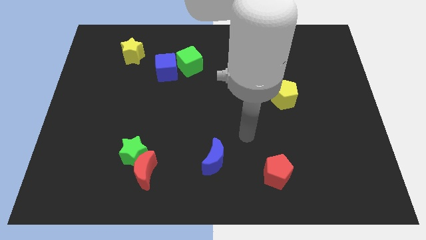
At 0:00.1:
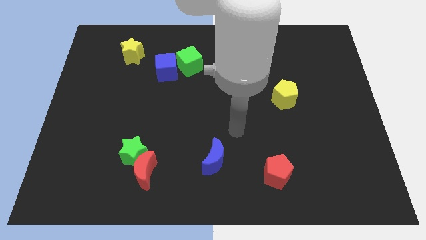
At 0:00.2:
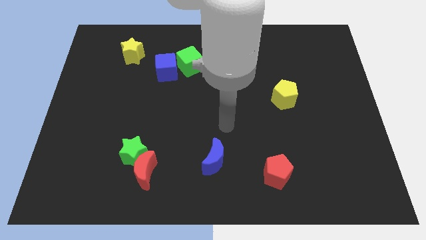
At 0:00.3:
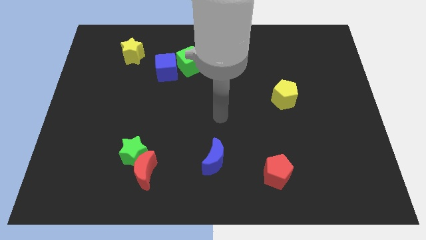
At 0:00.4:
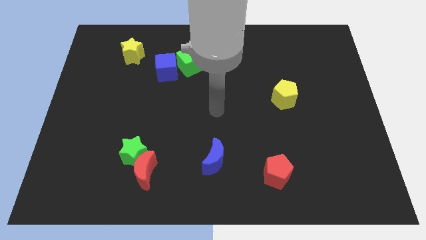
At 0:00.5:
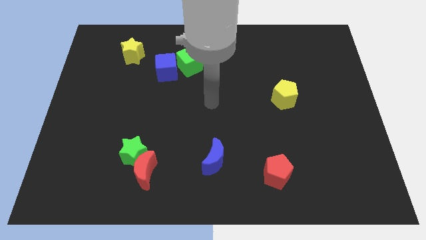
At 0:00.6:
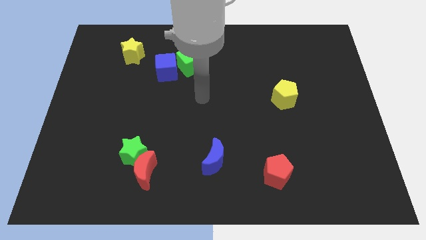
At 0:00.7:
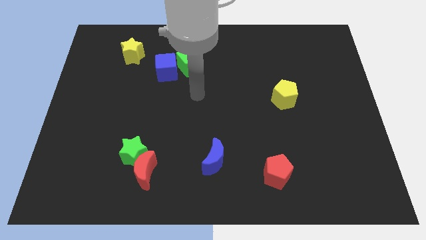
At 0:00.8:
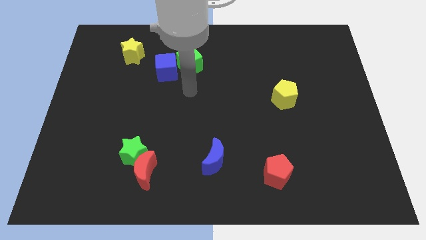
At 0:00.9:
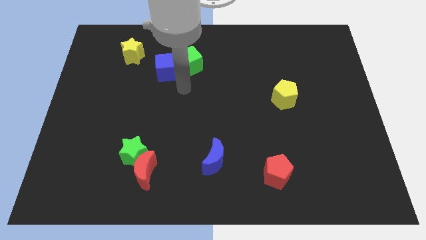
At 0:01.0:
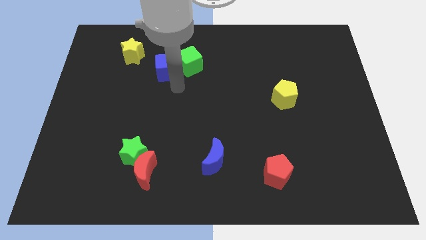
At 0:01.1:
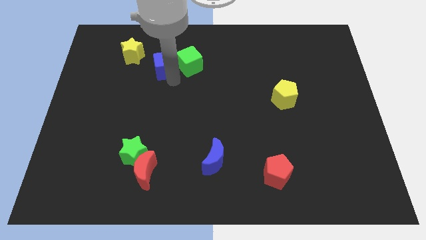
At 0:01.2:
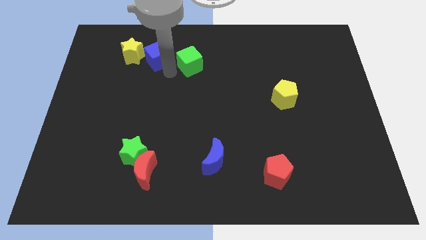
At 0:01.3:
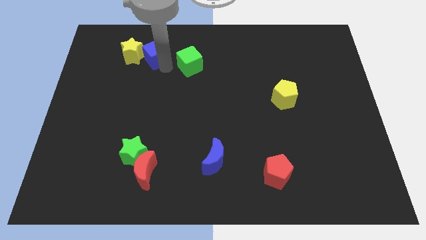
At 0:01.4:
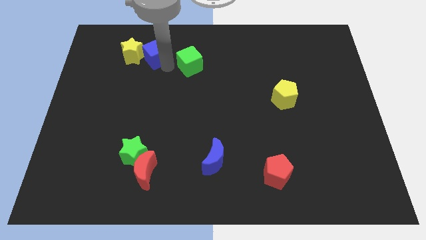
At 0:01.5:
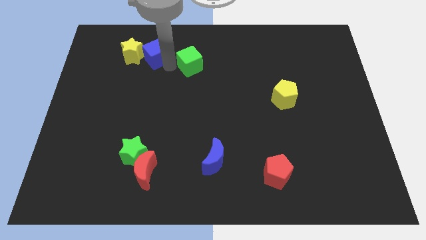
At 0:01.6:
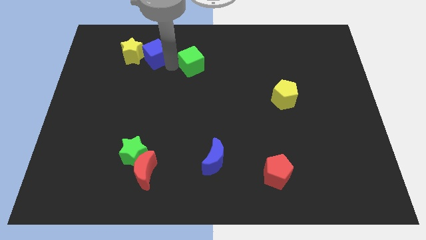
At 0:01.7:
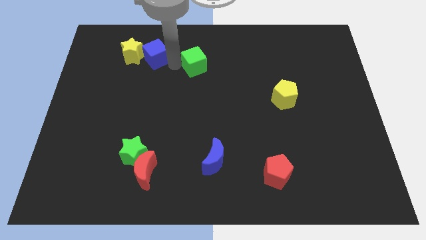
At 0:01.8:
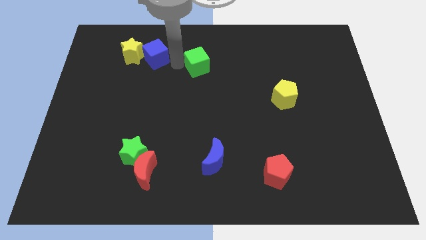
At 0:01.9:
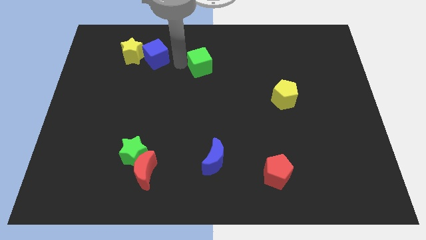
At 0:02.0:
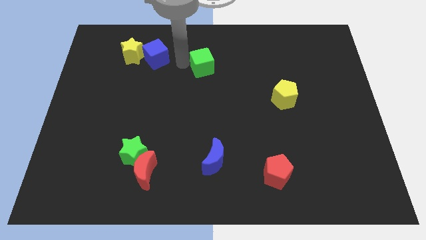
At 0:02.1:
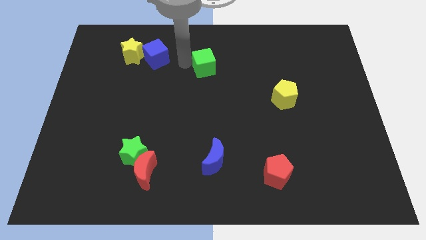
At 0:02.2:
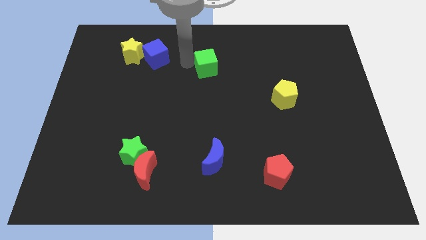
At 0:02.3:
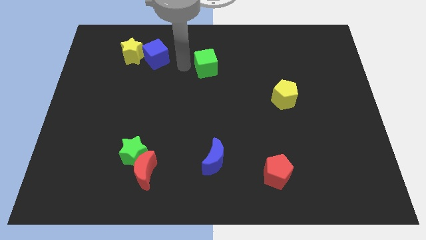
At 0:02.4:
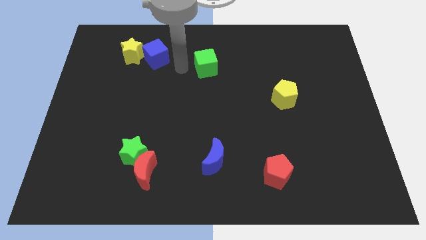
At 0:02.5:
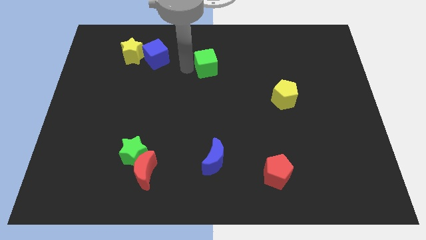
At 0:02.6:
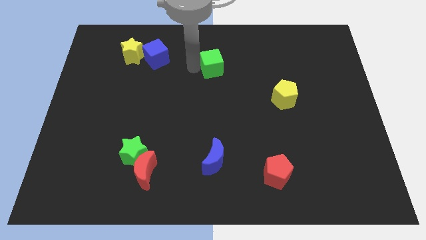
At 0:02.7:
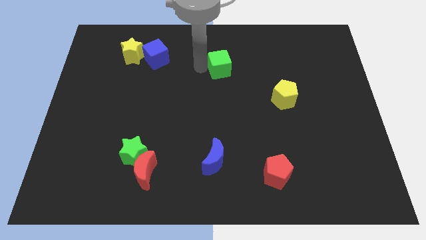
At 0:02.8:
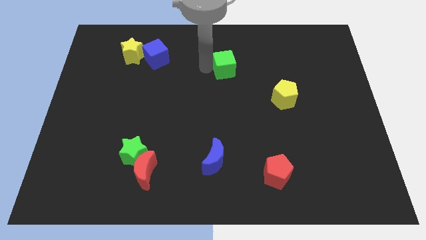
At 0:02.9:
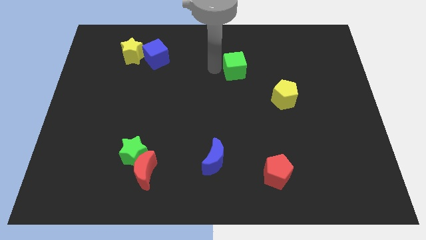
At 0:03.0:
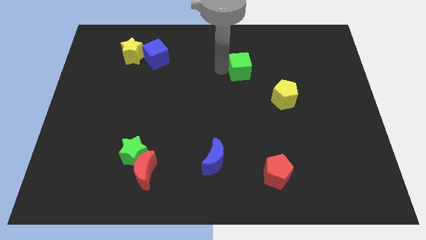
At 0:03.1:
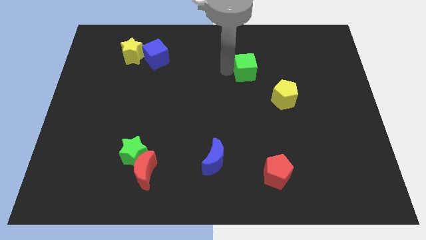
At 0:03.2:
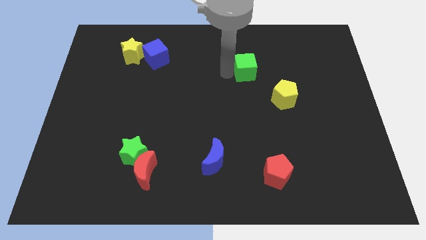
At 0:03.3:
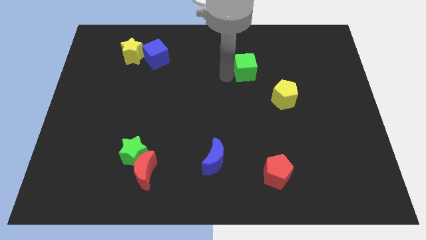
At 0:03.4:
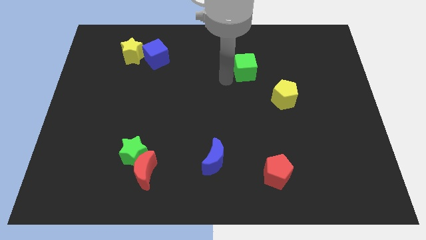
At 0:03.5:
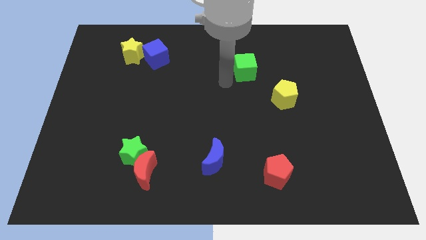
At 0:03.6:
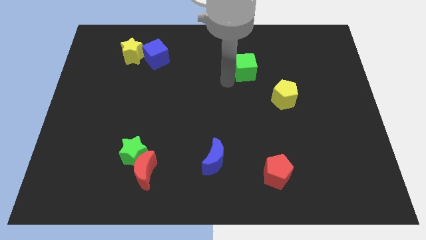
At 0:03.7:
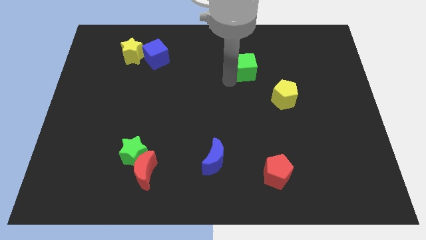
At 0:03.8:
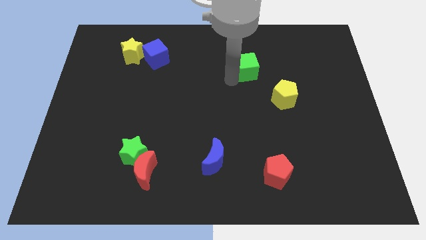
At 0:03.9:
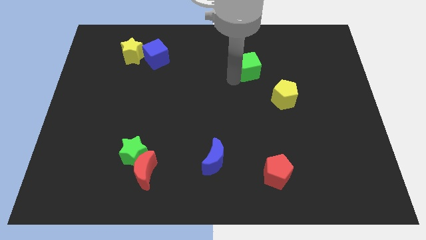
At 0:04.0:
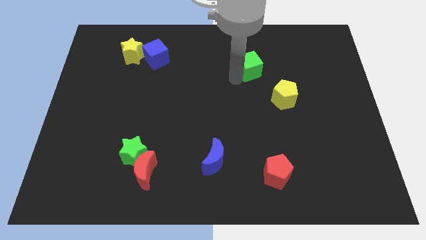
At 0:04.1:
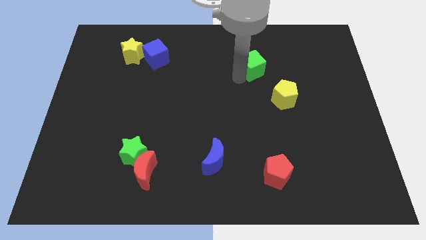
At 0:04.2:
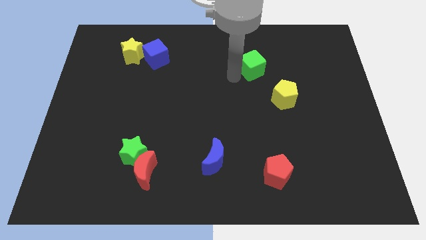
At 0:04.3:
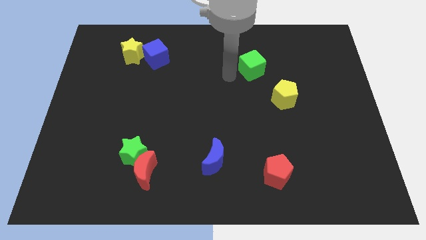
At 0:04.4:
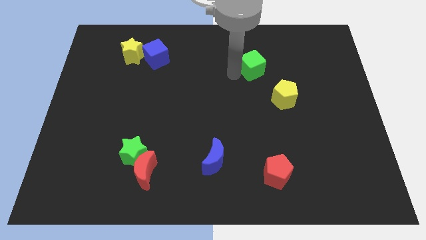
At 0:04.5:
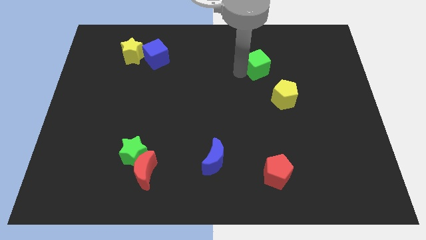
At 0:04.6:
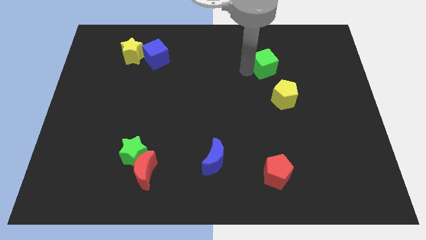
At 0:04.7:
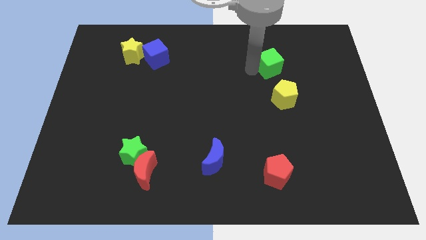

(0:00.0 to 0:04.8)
push the green cube to the right

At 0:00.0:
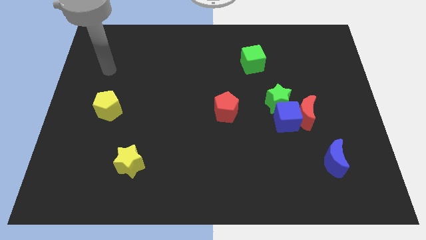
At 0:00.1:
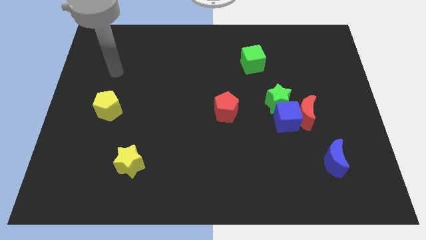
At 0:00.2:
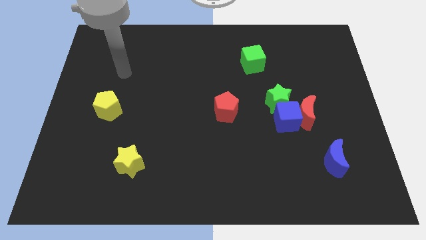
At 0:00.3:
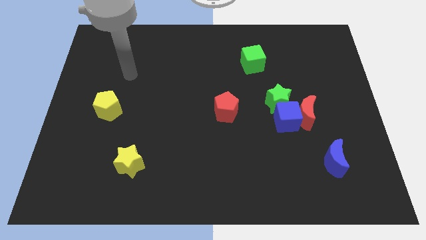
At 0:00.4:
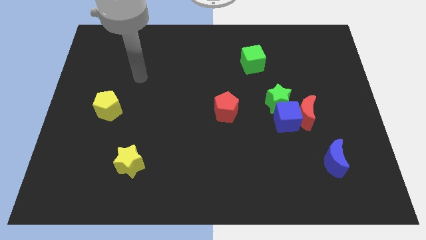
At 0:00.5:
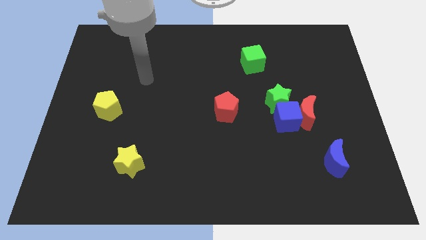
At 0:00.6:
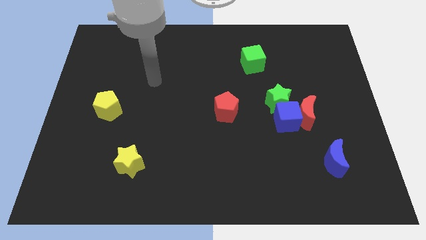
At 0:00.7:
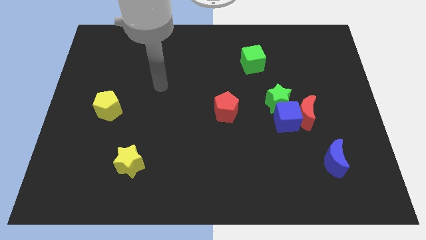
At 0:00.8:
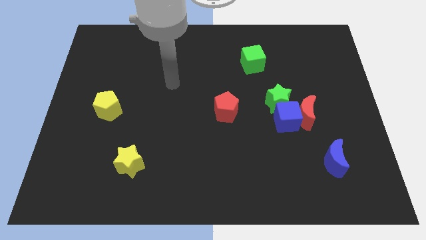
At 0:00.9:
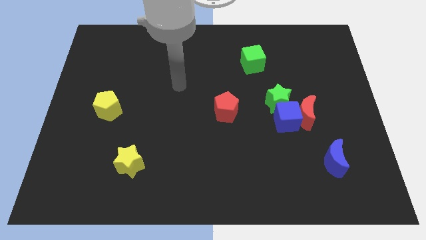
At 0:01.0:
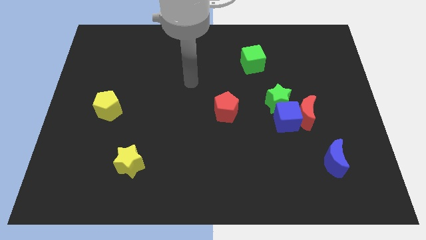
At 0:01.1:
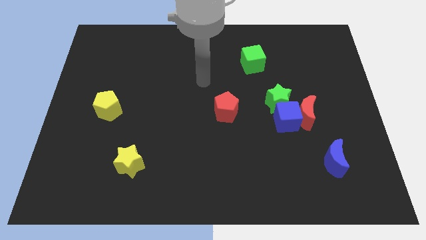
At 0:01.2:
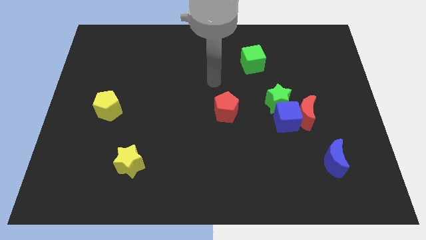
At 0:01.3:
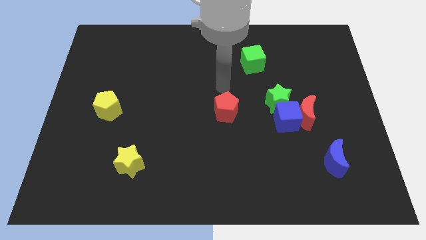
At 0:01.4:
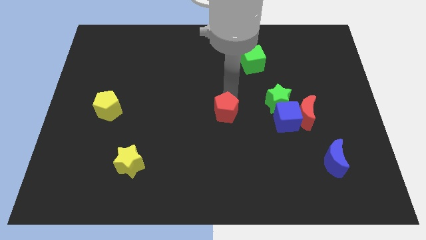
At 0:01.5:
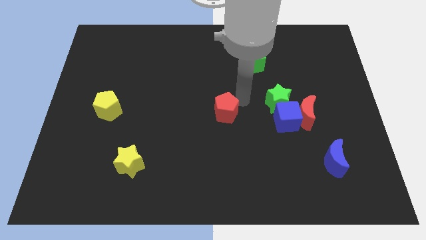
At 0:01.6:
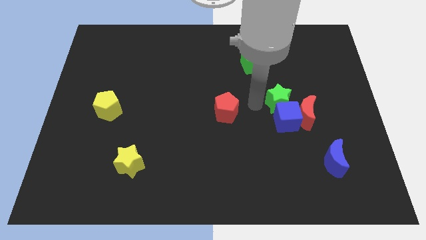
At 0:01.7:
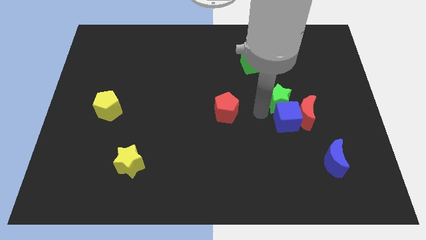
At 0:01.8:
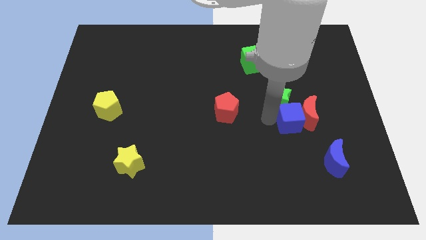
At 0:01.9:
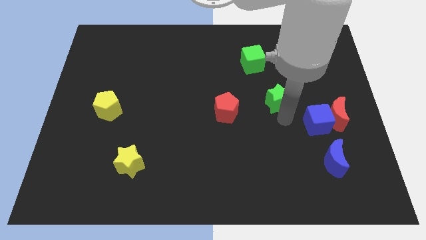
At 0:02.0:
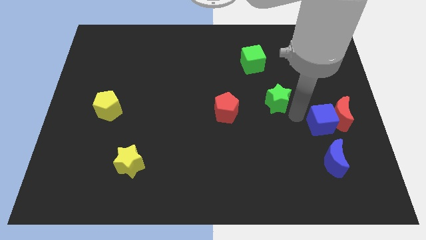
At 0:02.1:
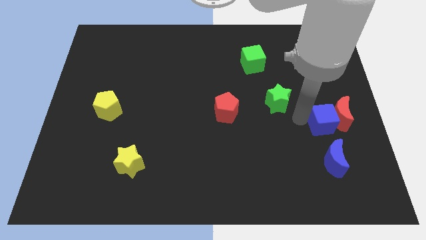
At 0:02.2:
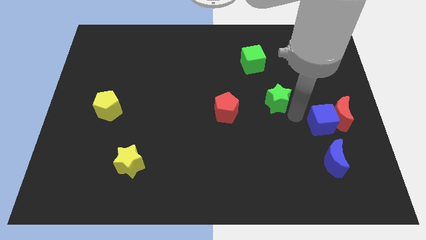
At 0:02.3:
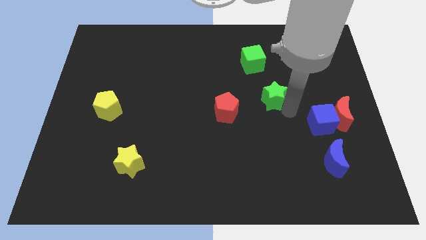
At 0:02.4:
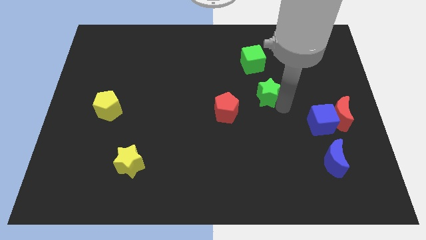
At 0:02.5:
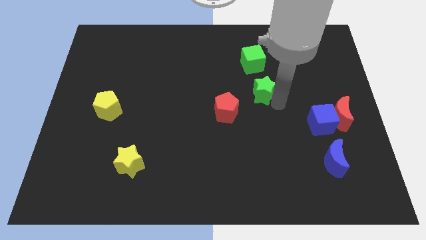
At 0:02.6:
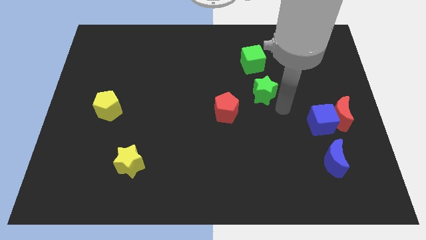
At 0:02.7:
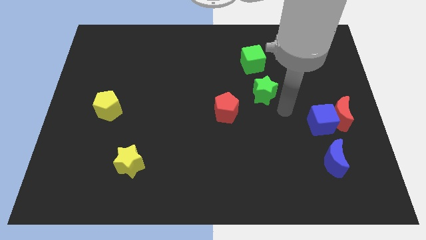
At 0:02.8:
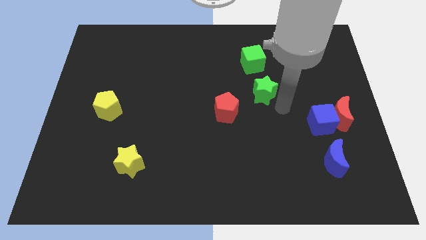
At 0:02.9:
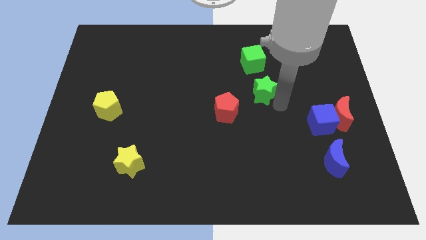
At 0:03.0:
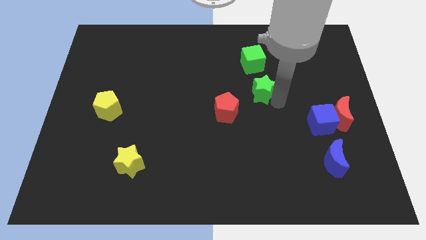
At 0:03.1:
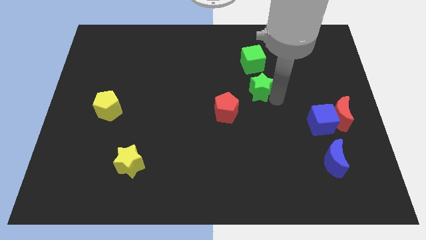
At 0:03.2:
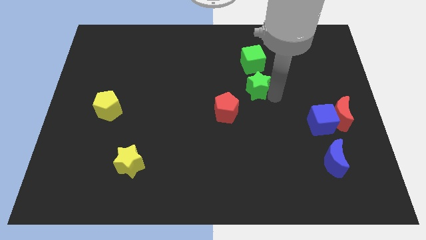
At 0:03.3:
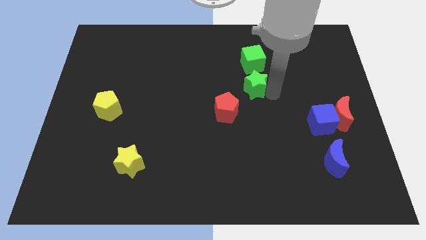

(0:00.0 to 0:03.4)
push the green star up and left diagonally slightly

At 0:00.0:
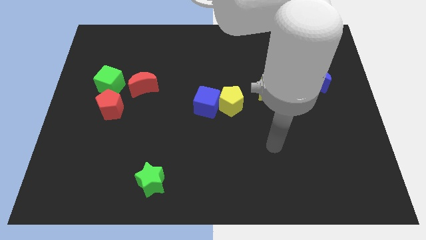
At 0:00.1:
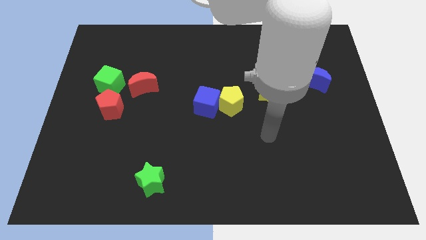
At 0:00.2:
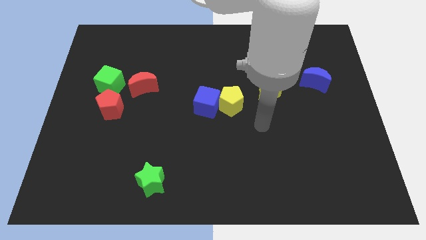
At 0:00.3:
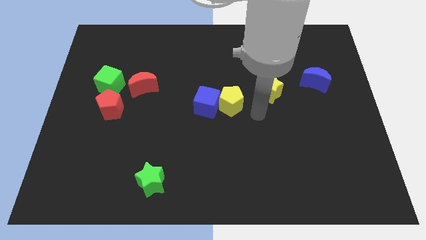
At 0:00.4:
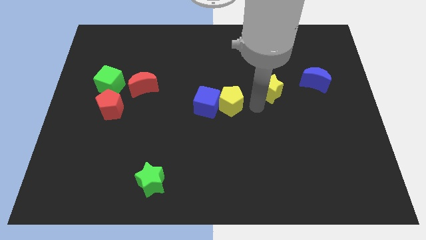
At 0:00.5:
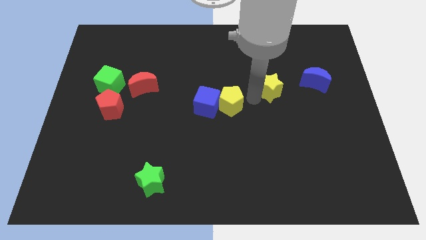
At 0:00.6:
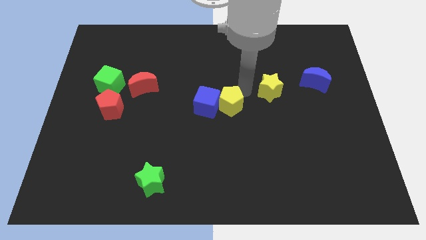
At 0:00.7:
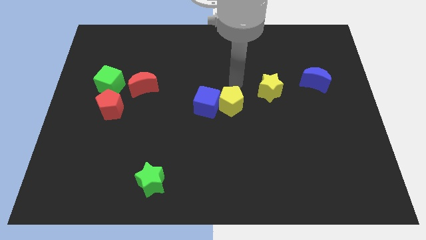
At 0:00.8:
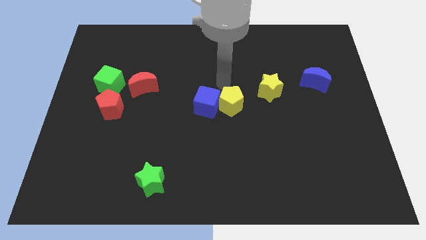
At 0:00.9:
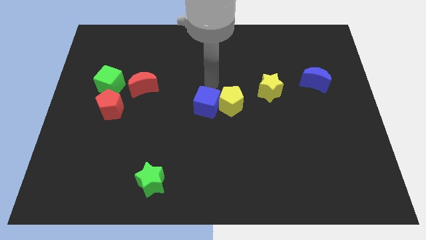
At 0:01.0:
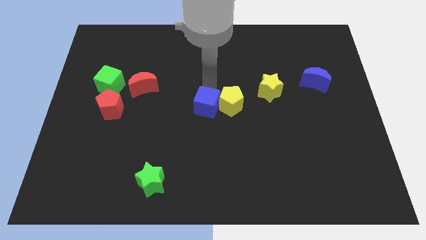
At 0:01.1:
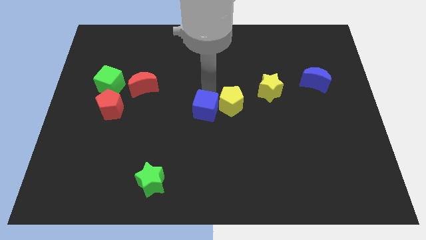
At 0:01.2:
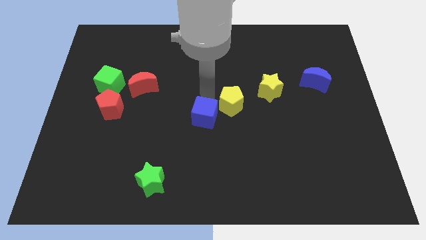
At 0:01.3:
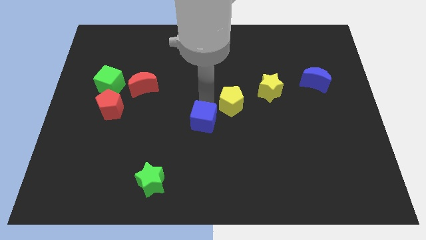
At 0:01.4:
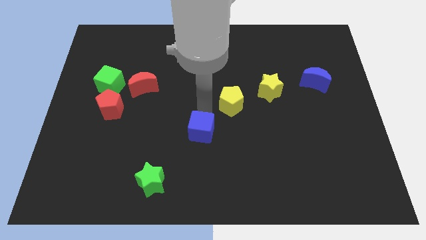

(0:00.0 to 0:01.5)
slide the blue cube somewhat downwards
